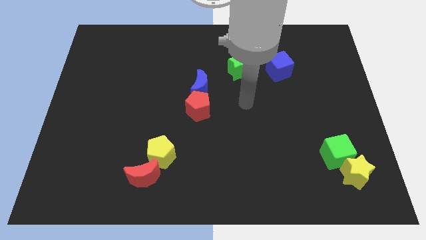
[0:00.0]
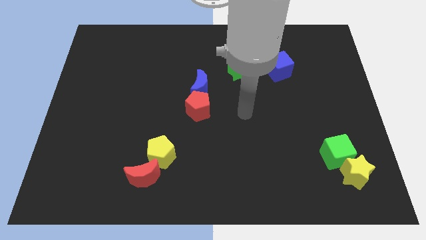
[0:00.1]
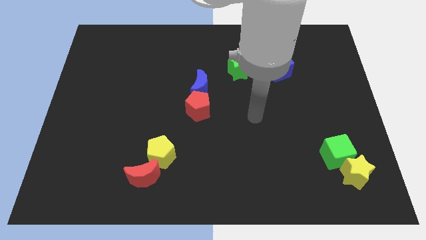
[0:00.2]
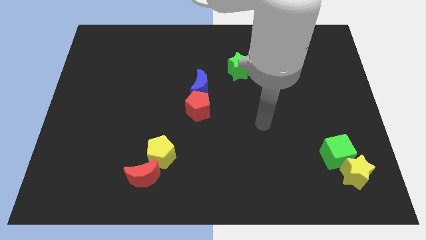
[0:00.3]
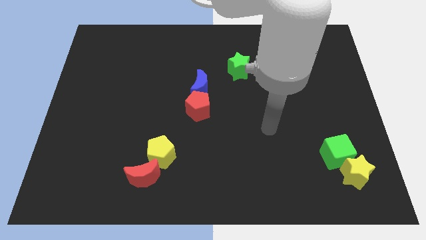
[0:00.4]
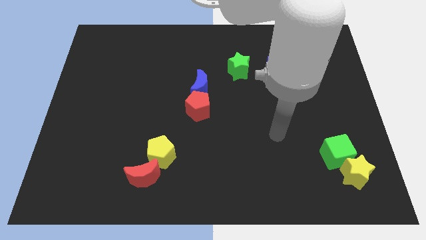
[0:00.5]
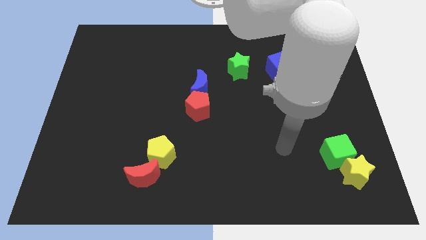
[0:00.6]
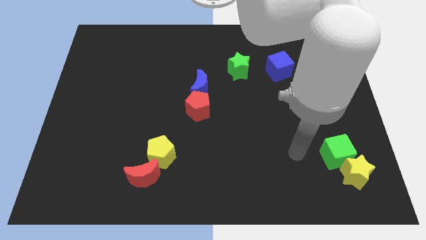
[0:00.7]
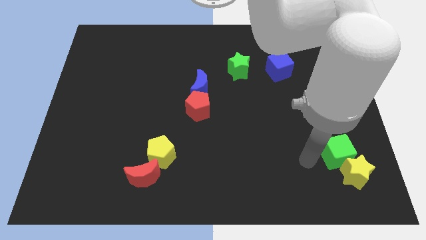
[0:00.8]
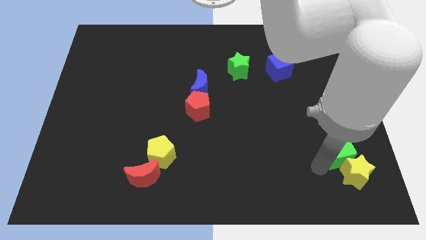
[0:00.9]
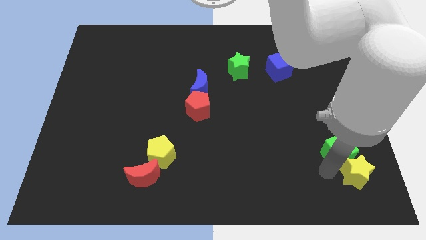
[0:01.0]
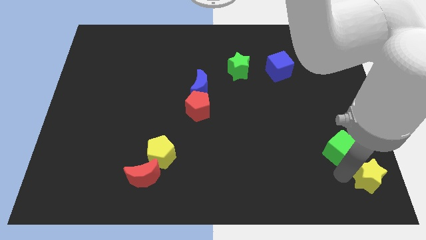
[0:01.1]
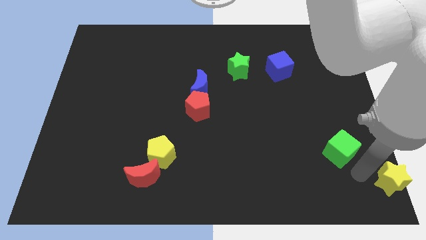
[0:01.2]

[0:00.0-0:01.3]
separate the green cube from the yellow star

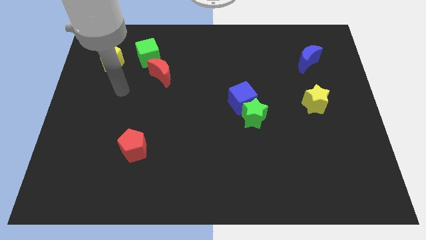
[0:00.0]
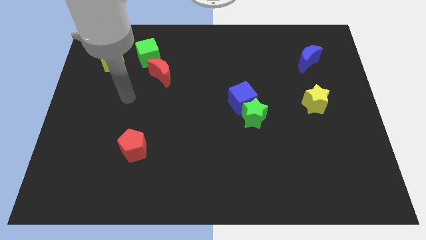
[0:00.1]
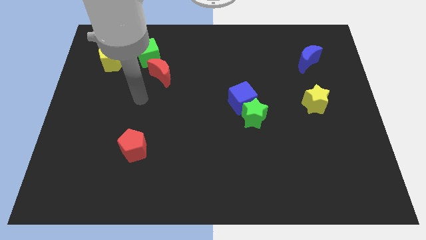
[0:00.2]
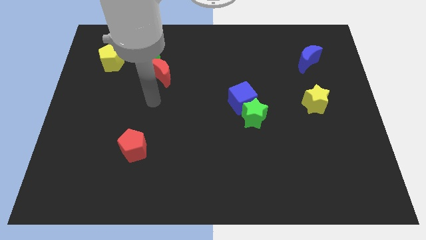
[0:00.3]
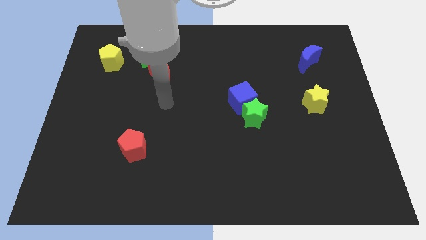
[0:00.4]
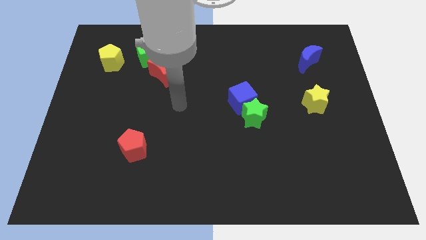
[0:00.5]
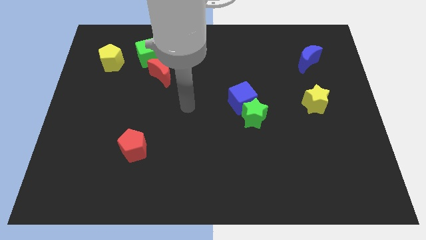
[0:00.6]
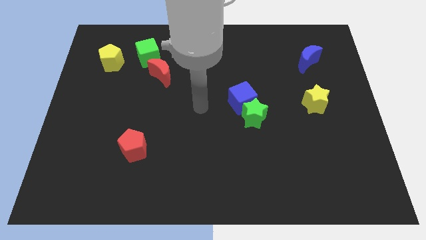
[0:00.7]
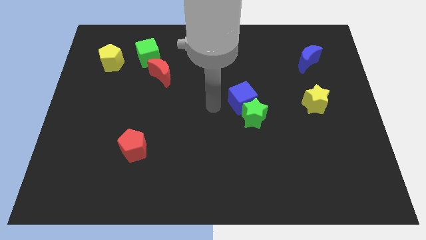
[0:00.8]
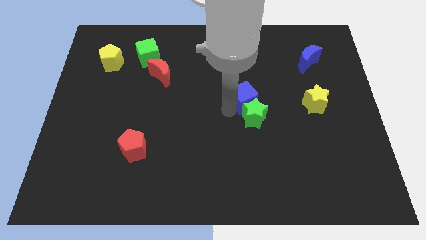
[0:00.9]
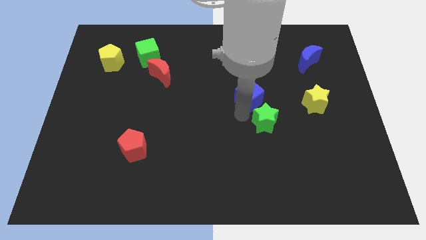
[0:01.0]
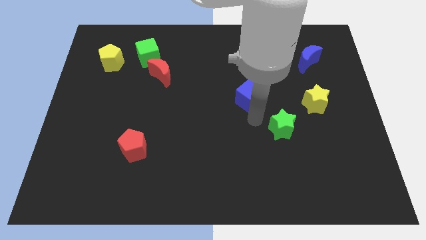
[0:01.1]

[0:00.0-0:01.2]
move the blue cube away from the green star

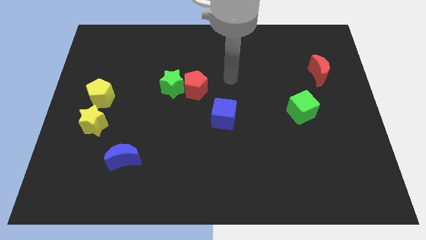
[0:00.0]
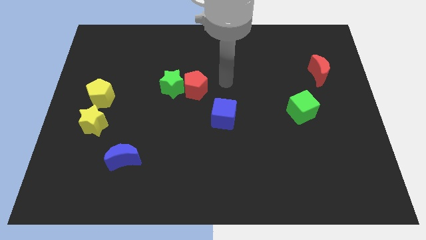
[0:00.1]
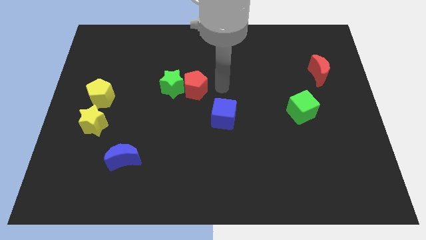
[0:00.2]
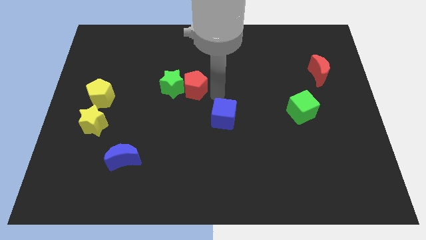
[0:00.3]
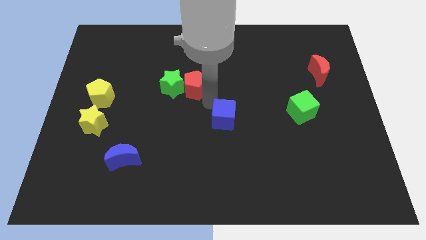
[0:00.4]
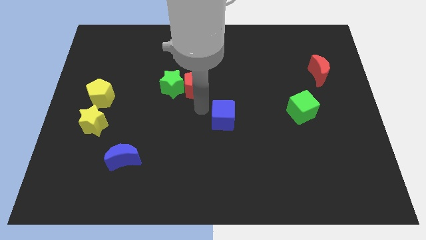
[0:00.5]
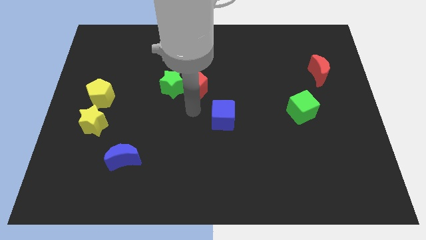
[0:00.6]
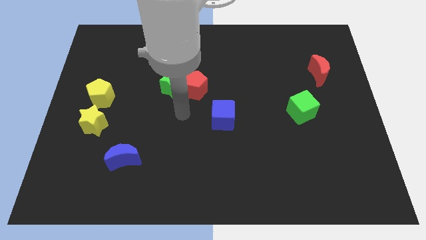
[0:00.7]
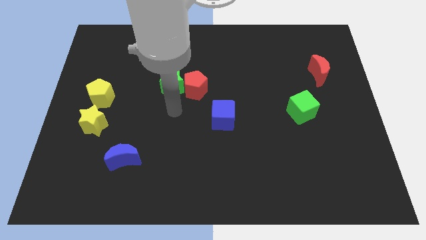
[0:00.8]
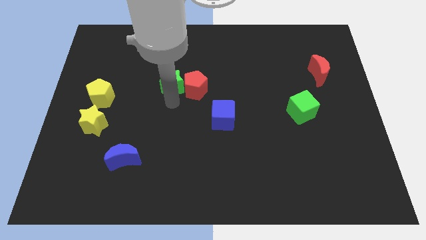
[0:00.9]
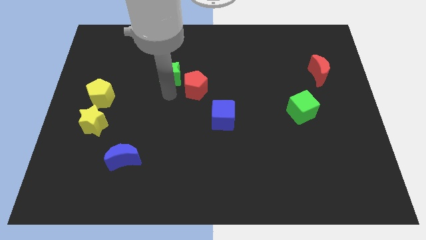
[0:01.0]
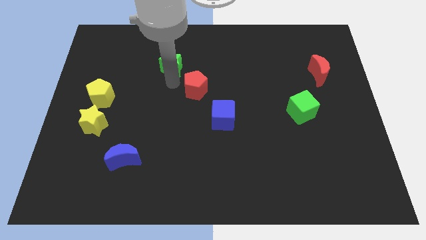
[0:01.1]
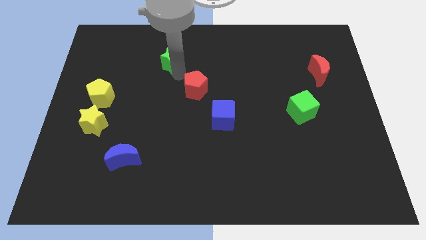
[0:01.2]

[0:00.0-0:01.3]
separate the red pentagon from the green star

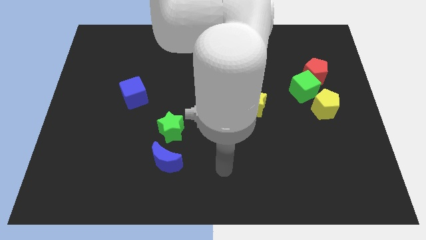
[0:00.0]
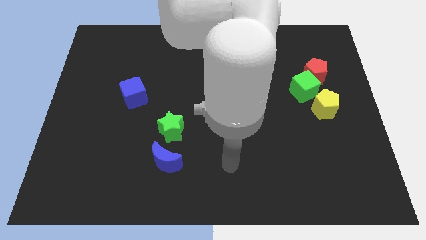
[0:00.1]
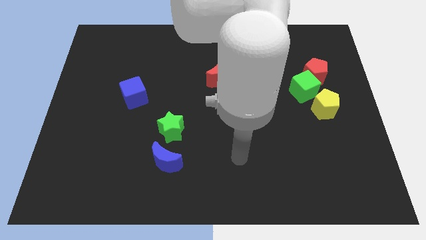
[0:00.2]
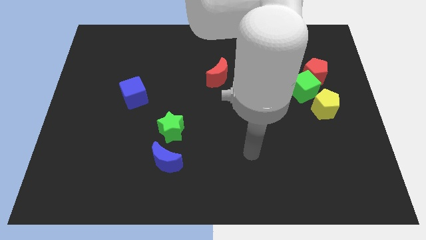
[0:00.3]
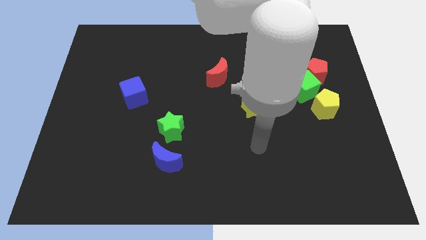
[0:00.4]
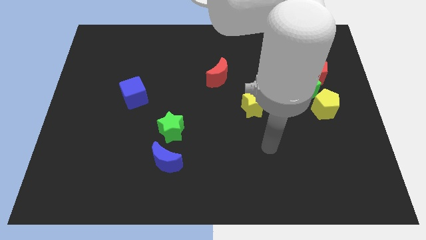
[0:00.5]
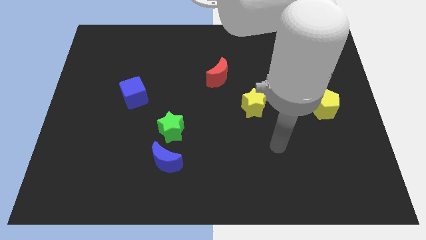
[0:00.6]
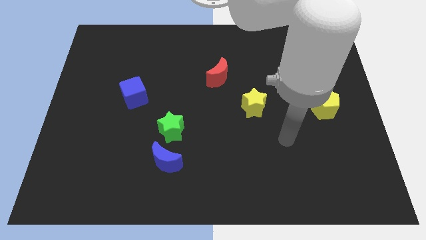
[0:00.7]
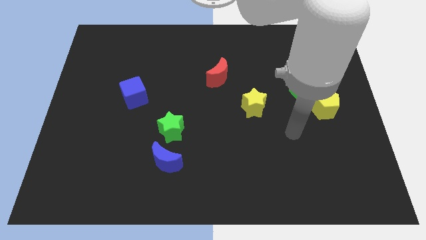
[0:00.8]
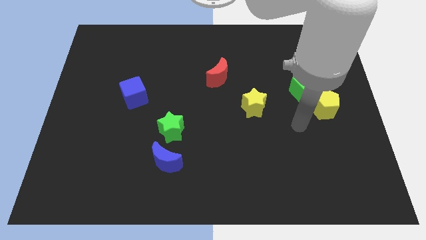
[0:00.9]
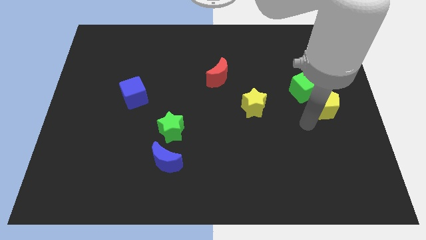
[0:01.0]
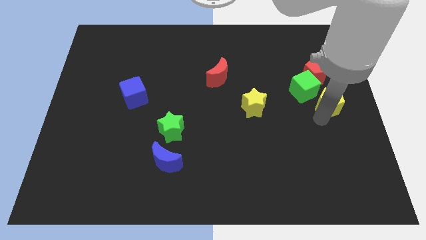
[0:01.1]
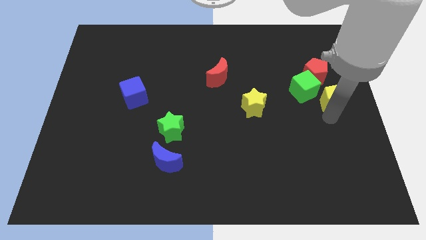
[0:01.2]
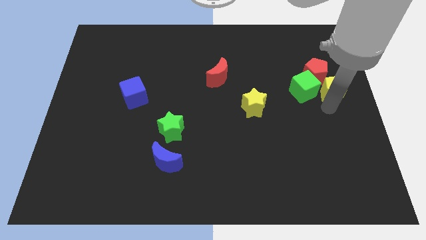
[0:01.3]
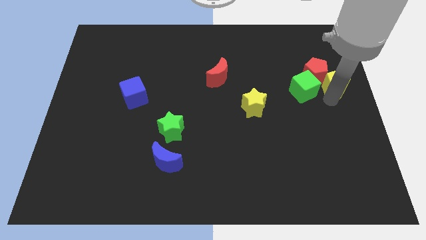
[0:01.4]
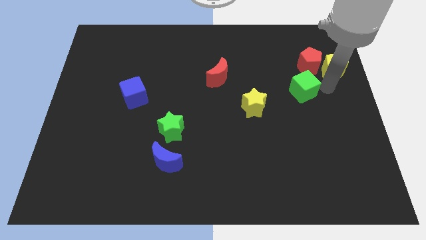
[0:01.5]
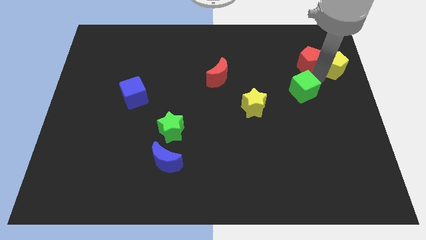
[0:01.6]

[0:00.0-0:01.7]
move the green cube away from the red pentagon and yellow pentagon

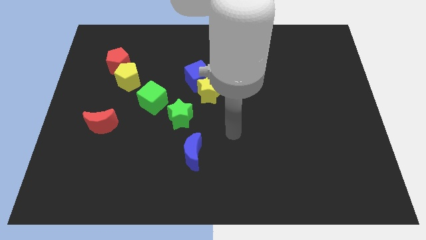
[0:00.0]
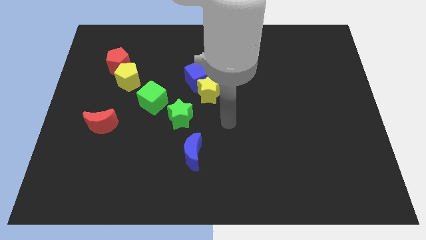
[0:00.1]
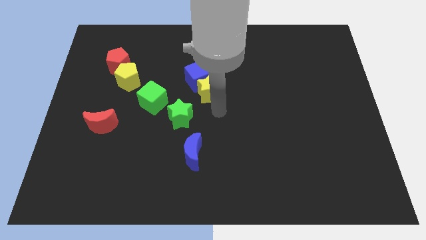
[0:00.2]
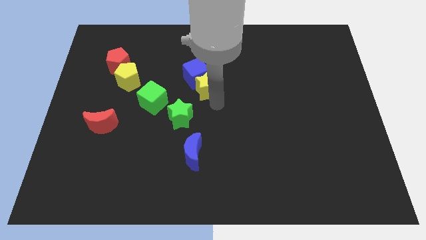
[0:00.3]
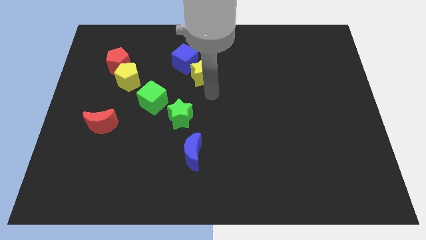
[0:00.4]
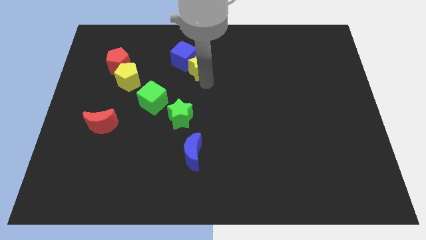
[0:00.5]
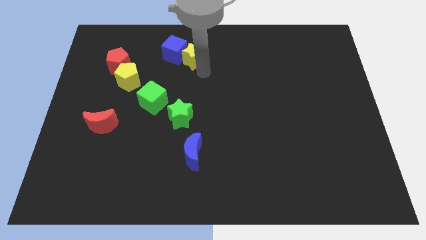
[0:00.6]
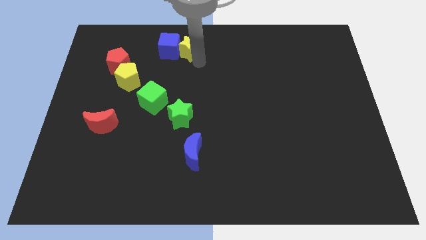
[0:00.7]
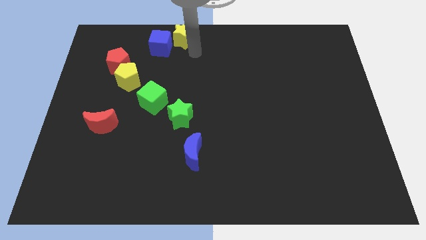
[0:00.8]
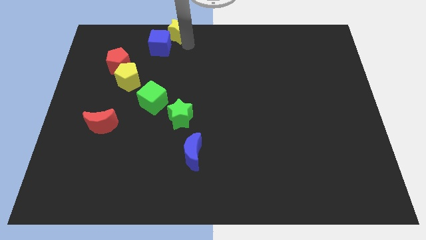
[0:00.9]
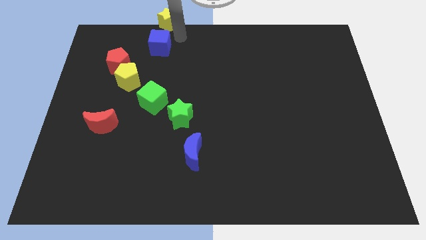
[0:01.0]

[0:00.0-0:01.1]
move the blue cube away from the yellow star

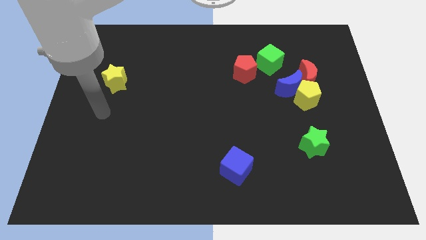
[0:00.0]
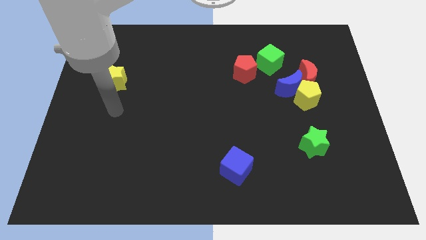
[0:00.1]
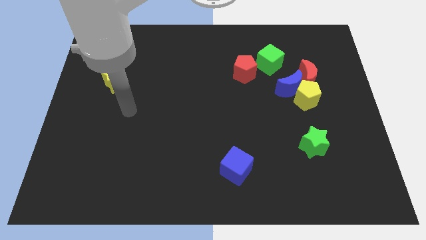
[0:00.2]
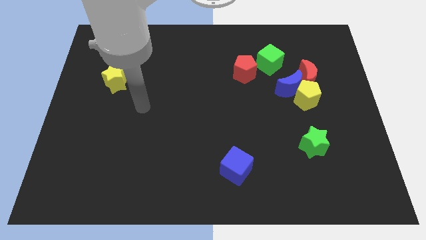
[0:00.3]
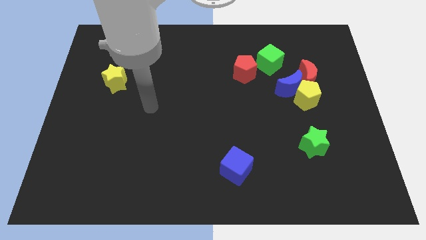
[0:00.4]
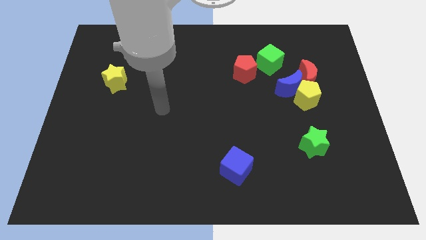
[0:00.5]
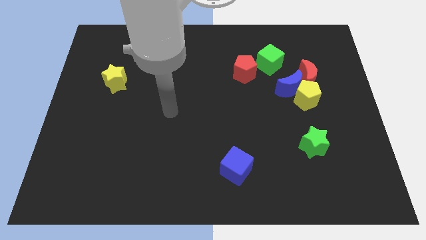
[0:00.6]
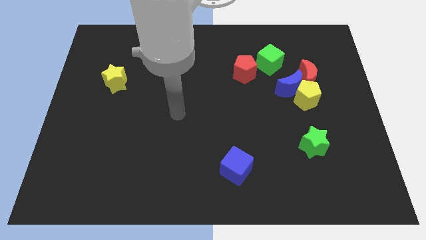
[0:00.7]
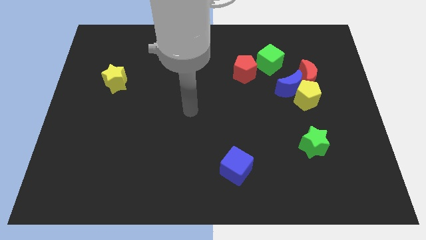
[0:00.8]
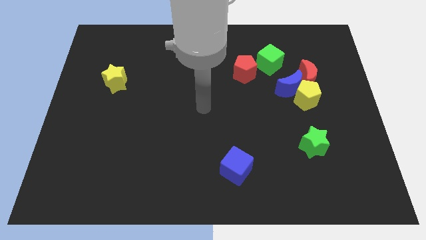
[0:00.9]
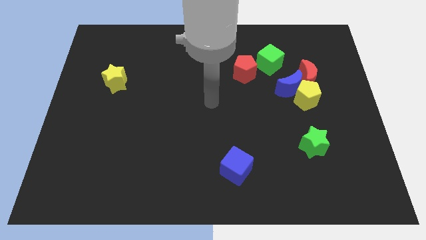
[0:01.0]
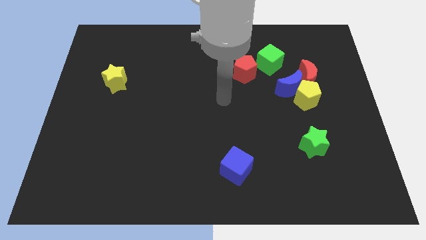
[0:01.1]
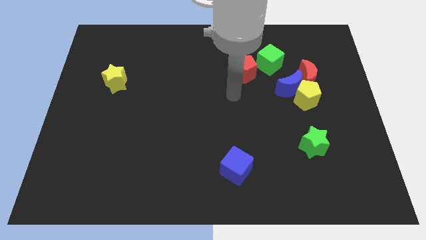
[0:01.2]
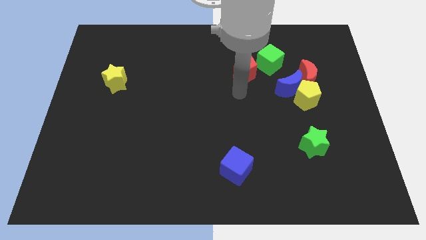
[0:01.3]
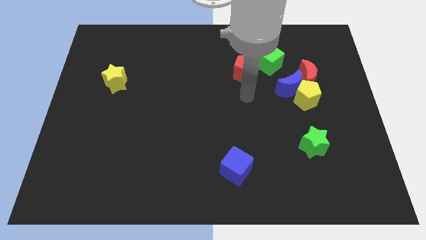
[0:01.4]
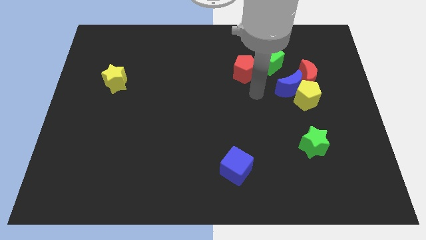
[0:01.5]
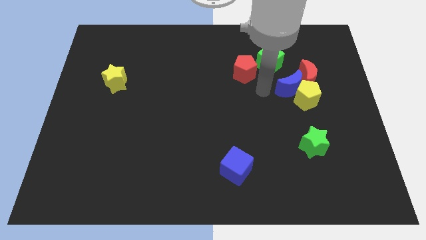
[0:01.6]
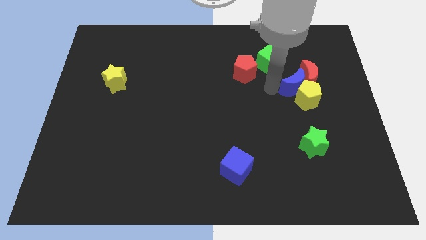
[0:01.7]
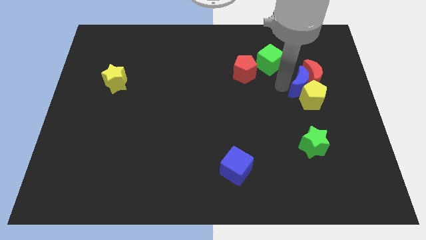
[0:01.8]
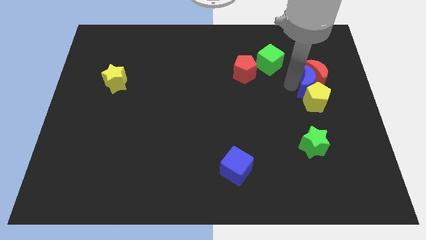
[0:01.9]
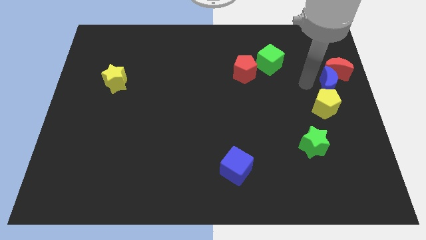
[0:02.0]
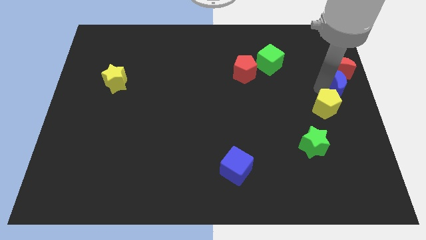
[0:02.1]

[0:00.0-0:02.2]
separate the yellow pentagon from the blue moon and red moon

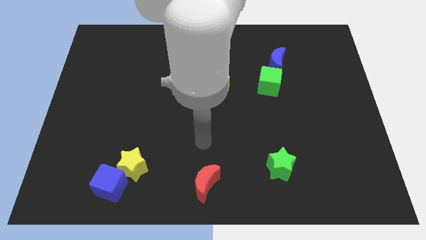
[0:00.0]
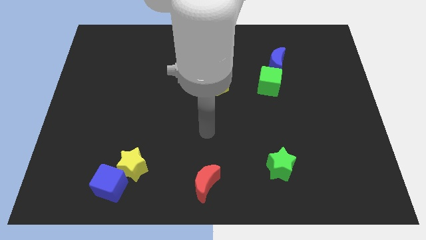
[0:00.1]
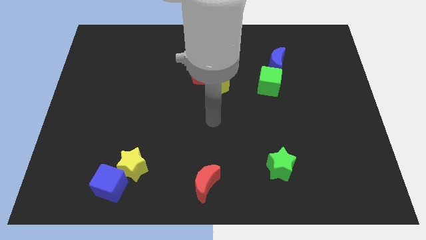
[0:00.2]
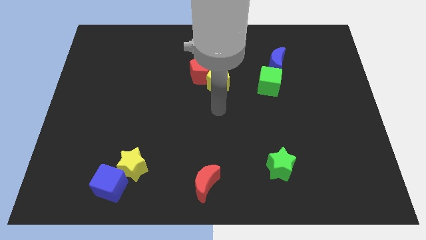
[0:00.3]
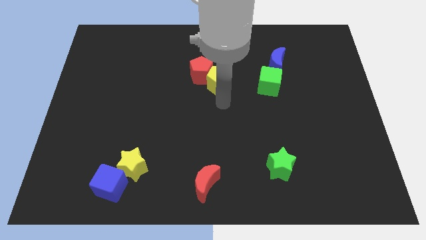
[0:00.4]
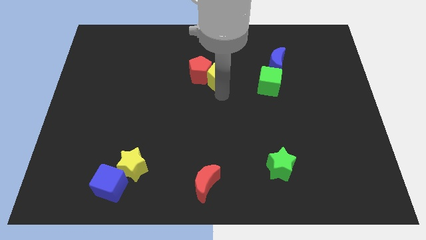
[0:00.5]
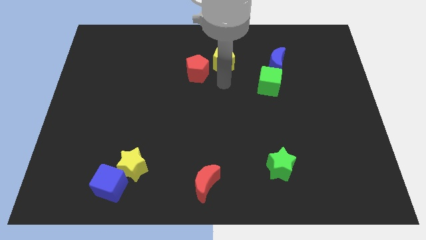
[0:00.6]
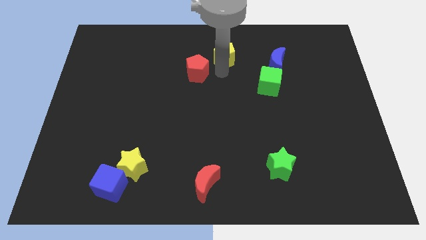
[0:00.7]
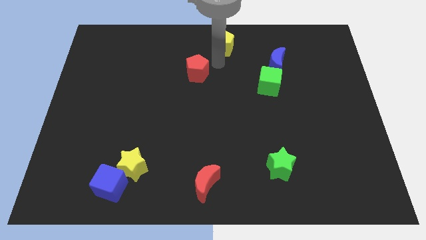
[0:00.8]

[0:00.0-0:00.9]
pull the red pentagon apart from the yellow pentagon
